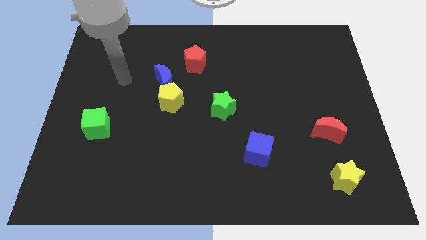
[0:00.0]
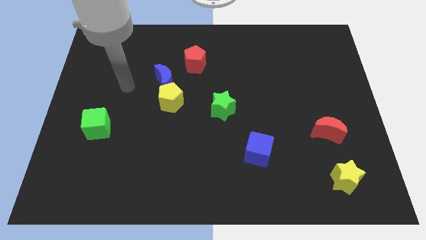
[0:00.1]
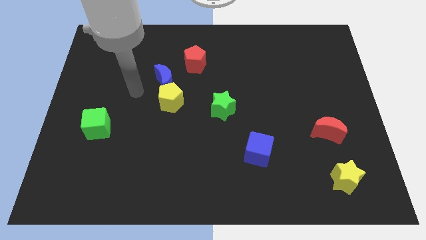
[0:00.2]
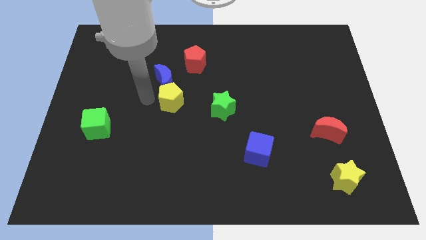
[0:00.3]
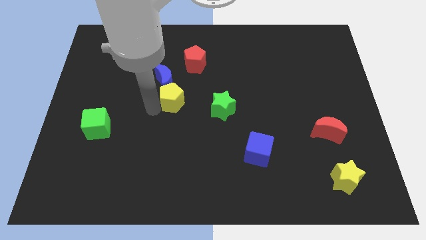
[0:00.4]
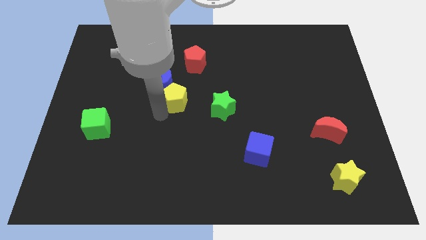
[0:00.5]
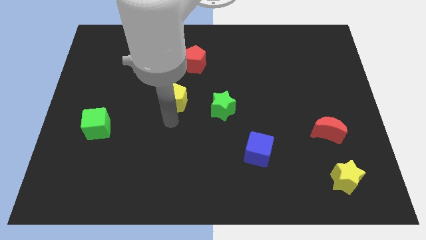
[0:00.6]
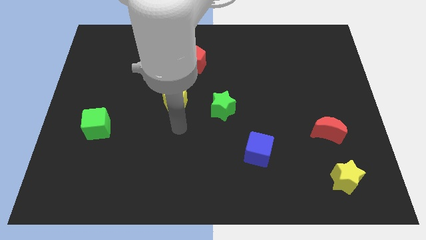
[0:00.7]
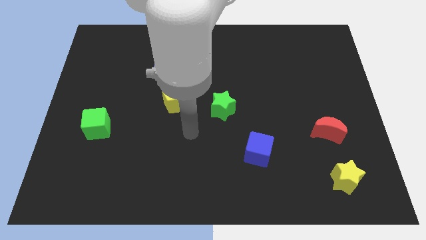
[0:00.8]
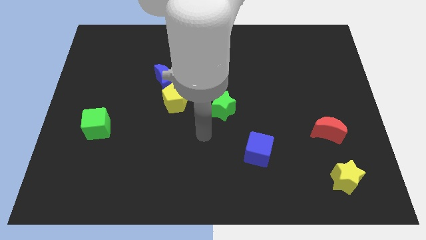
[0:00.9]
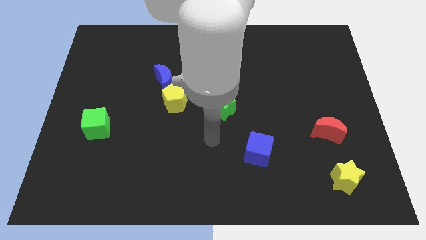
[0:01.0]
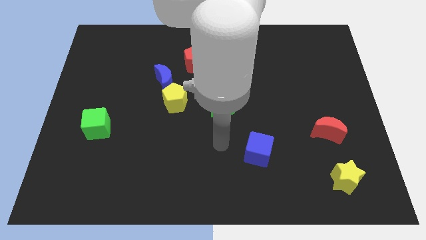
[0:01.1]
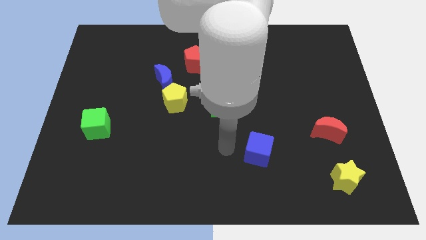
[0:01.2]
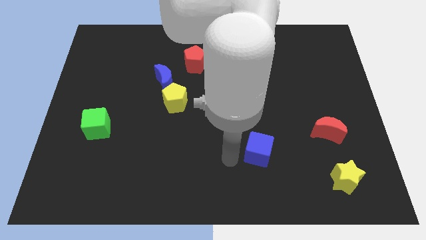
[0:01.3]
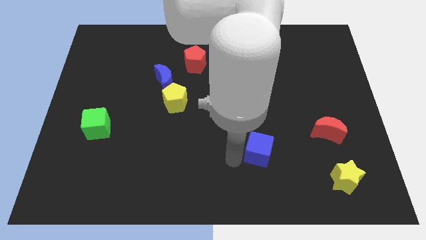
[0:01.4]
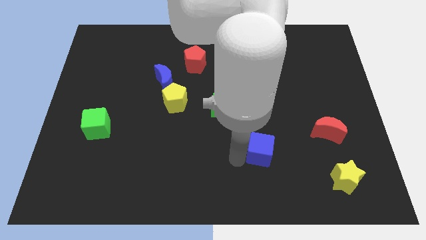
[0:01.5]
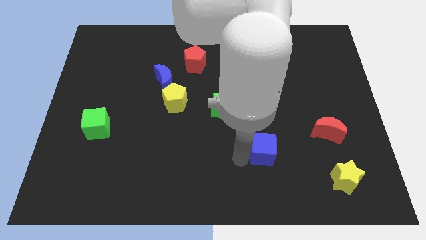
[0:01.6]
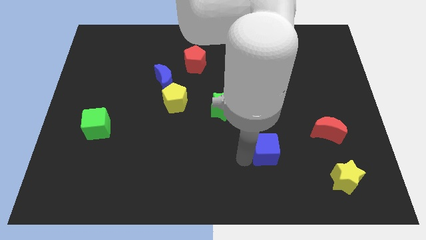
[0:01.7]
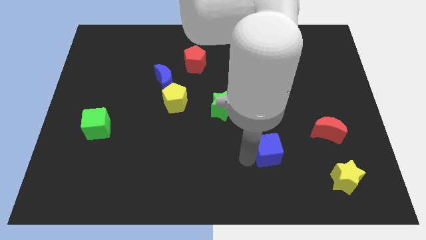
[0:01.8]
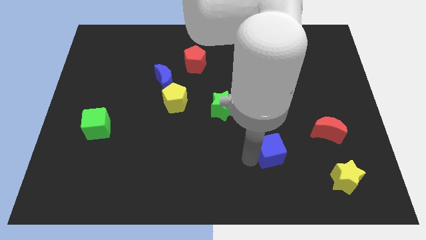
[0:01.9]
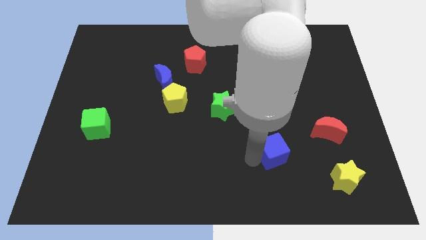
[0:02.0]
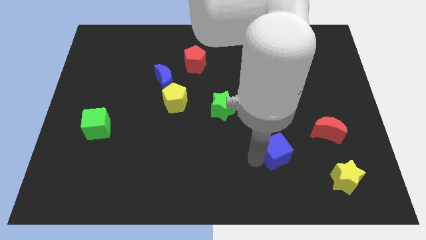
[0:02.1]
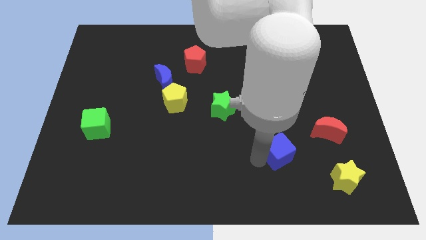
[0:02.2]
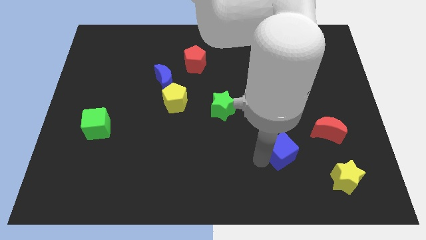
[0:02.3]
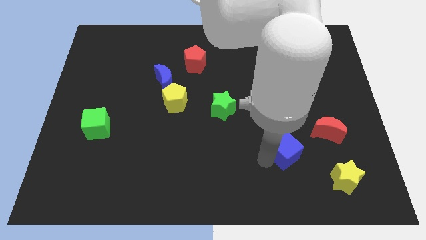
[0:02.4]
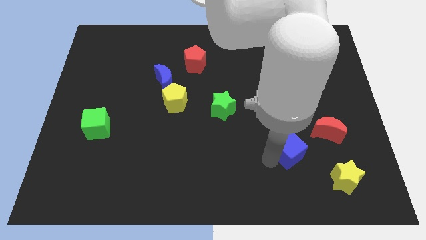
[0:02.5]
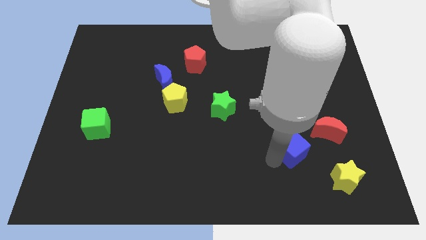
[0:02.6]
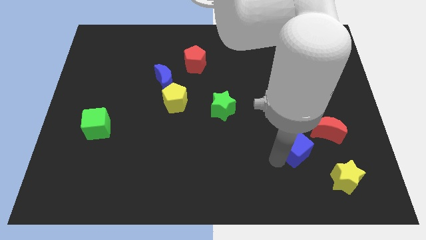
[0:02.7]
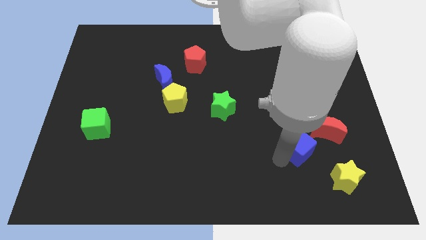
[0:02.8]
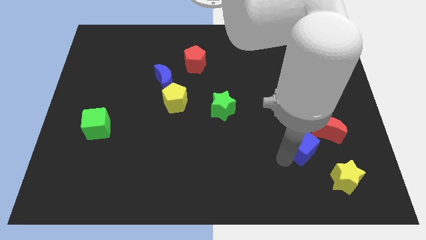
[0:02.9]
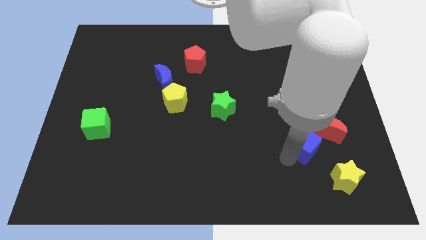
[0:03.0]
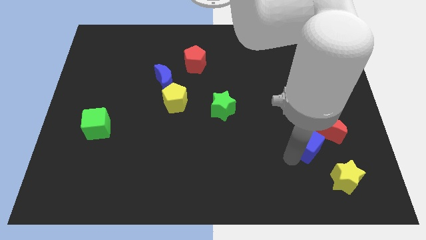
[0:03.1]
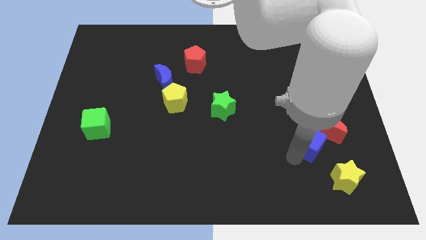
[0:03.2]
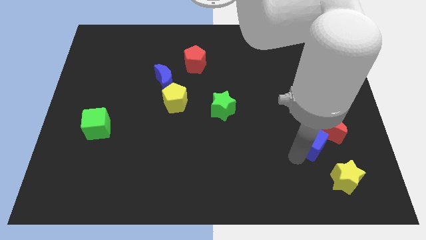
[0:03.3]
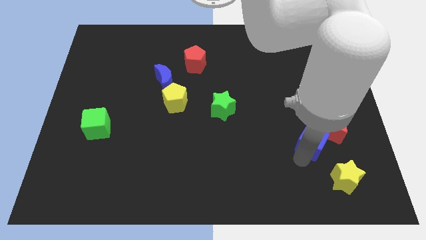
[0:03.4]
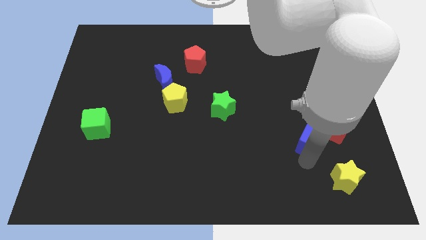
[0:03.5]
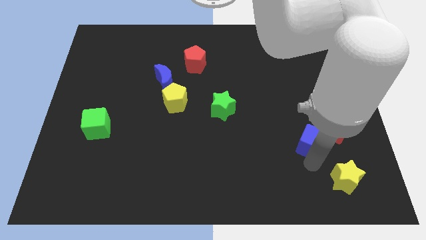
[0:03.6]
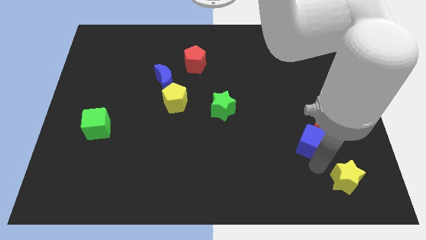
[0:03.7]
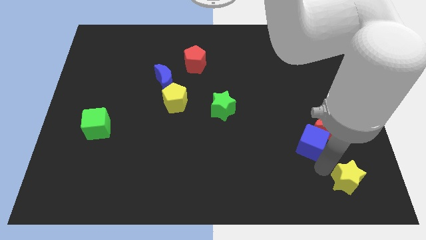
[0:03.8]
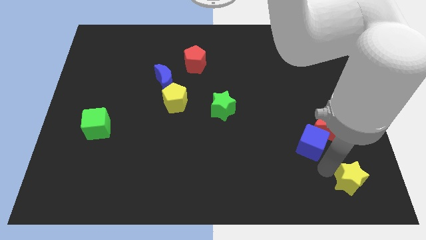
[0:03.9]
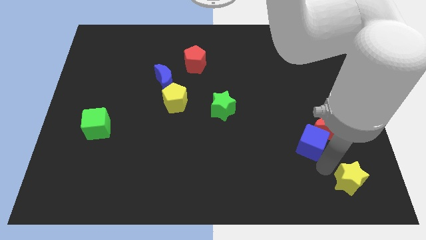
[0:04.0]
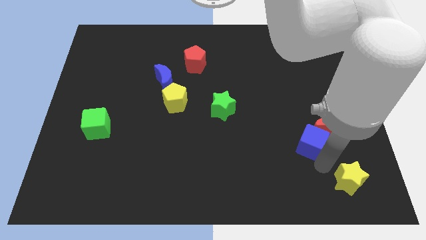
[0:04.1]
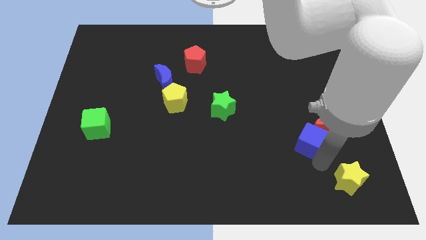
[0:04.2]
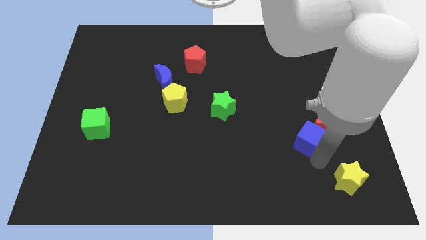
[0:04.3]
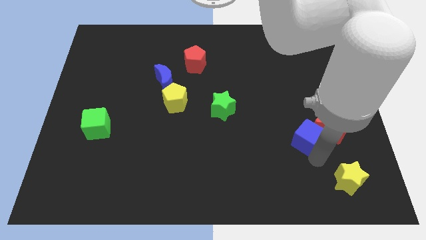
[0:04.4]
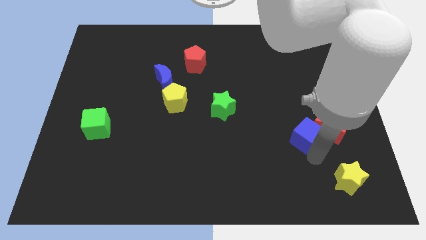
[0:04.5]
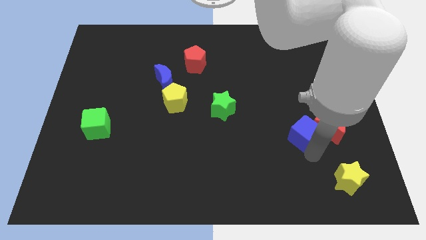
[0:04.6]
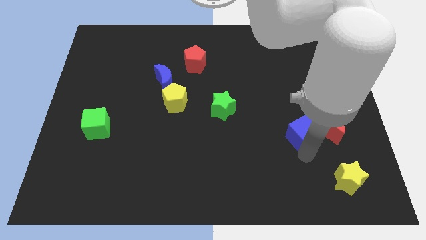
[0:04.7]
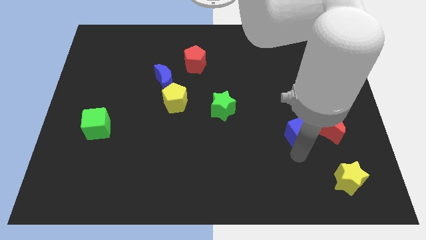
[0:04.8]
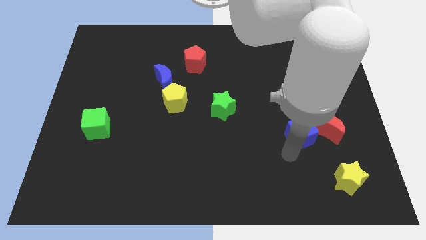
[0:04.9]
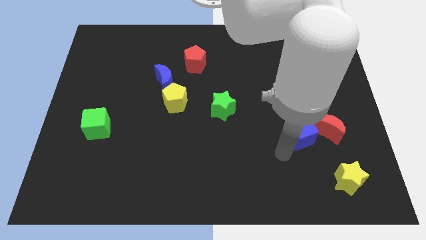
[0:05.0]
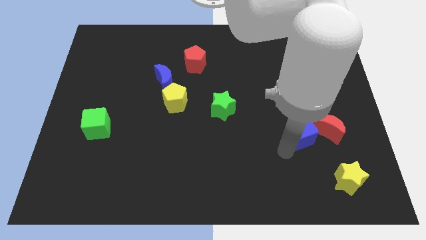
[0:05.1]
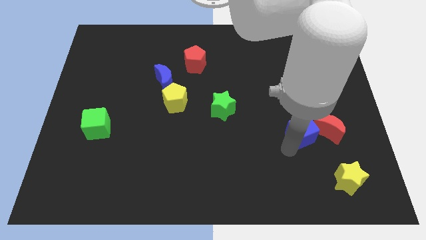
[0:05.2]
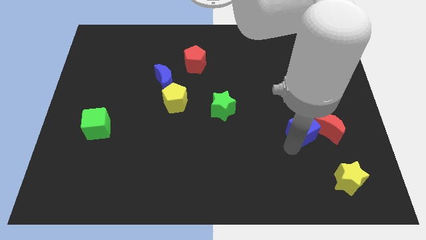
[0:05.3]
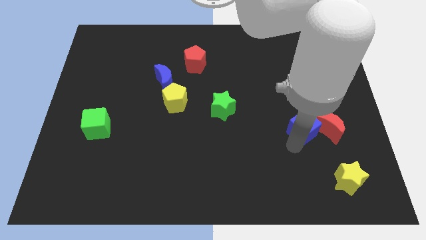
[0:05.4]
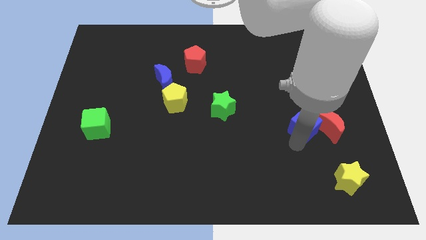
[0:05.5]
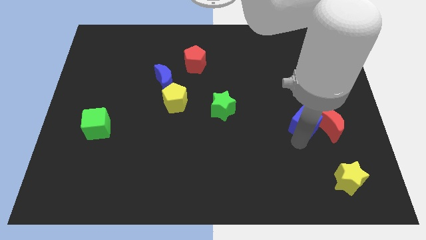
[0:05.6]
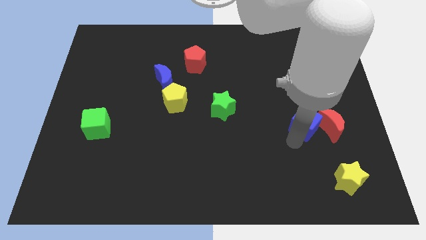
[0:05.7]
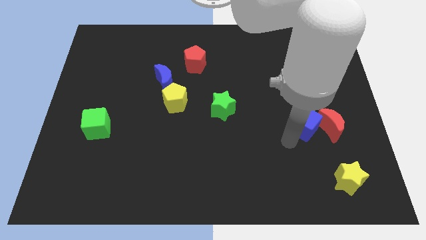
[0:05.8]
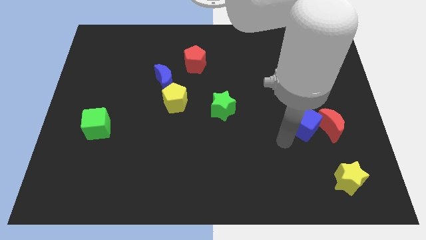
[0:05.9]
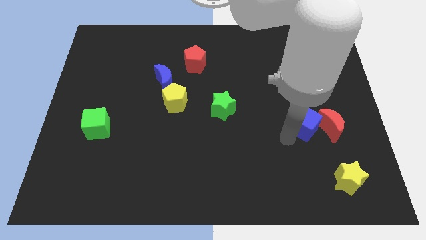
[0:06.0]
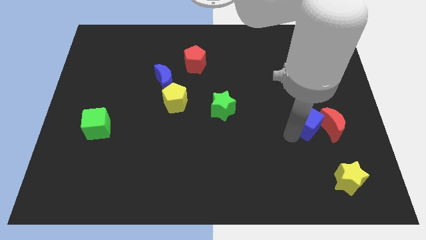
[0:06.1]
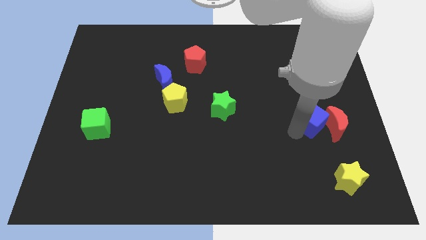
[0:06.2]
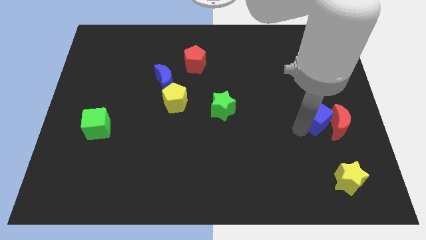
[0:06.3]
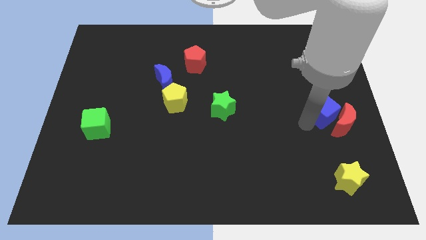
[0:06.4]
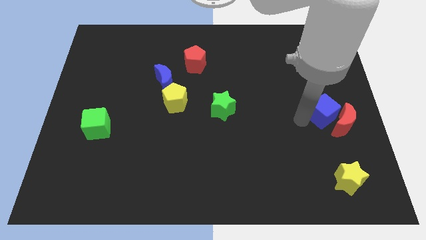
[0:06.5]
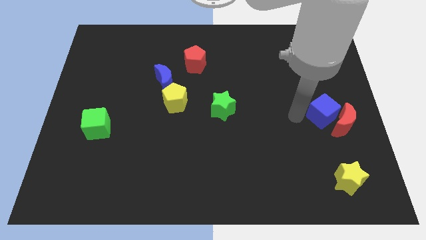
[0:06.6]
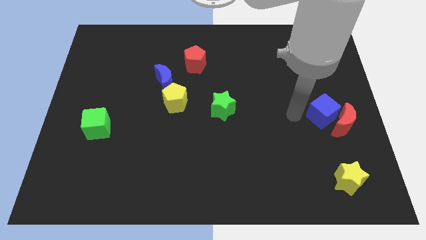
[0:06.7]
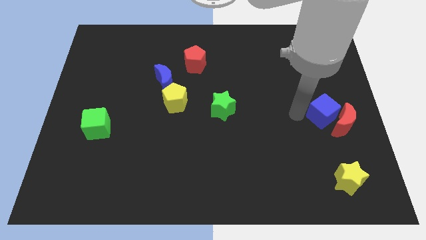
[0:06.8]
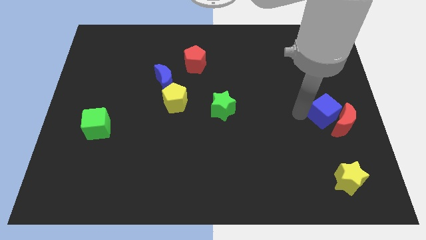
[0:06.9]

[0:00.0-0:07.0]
put the blue cube to the center right
